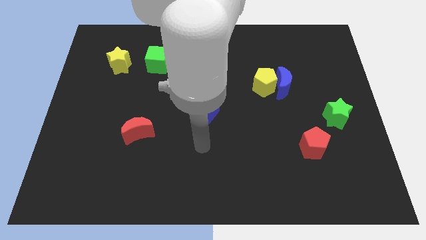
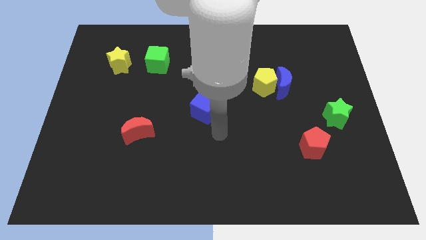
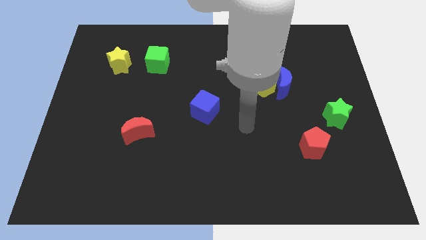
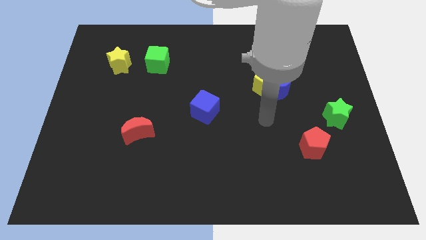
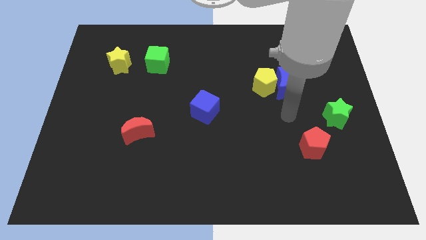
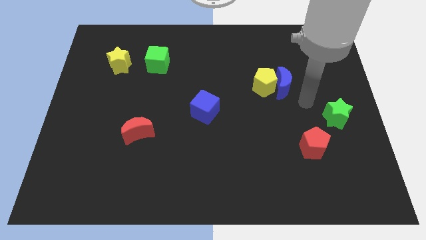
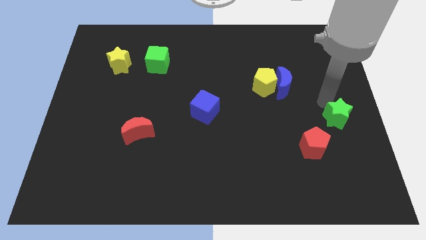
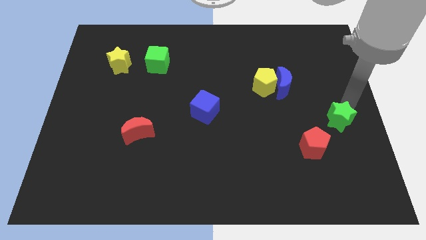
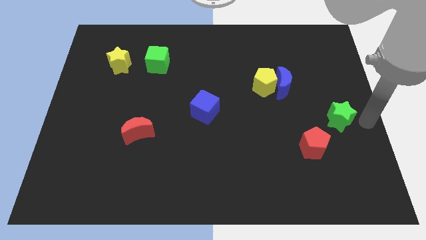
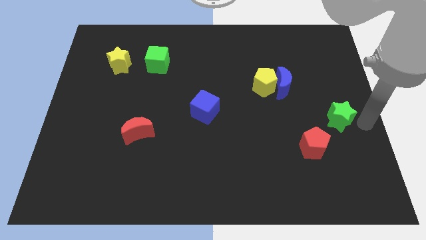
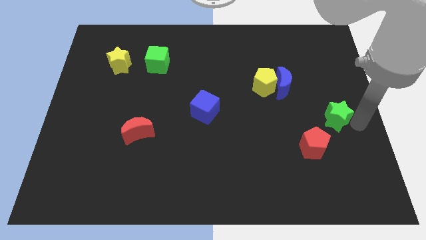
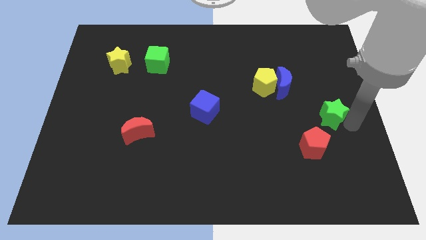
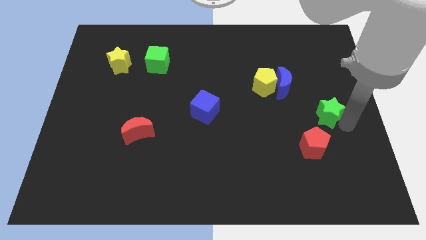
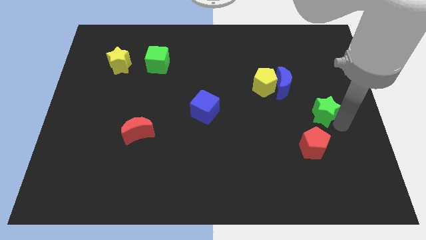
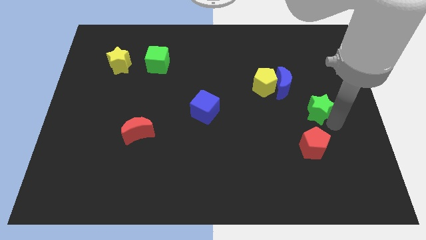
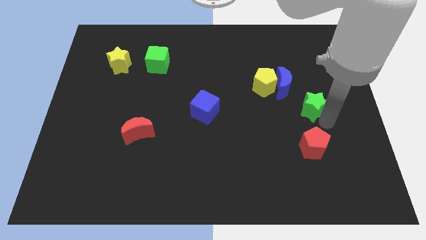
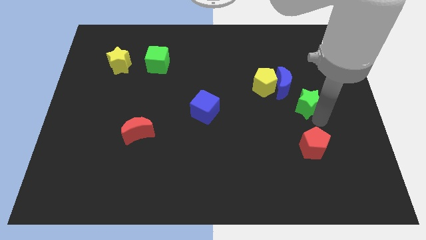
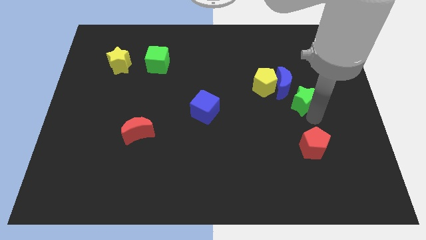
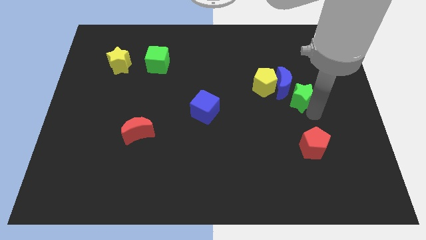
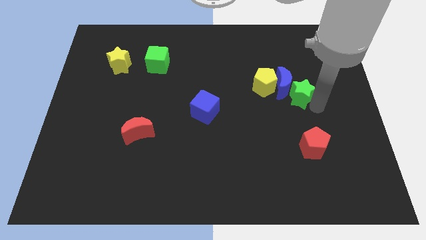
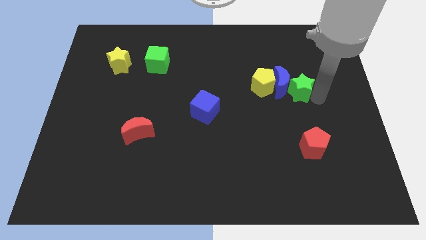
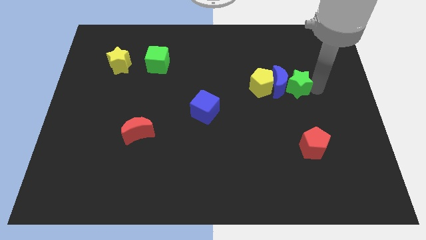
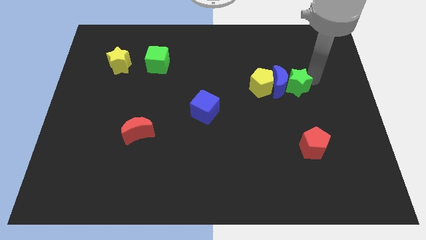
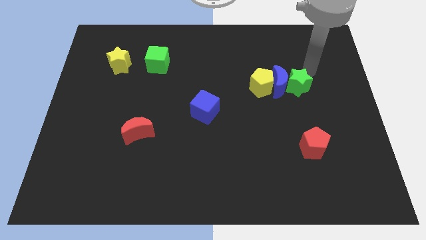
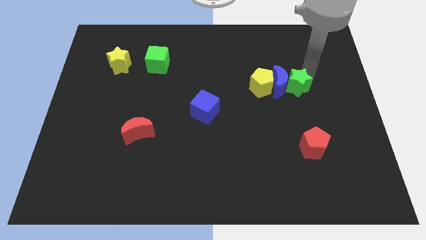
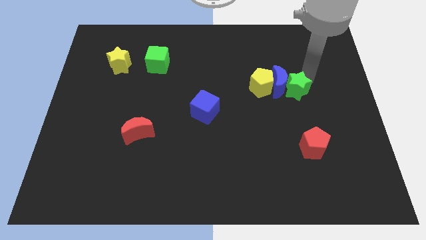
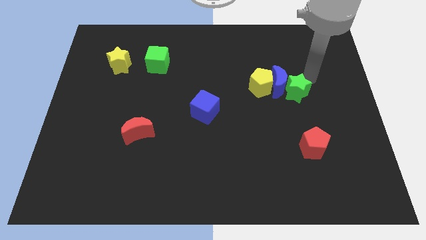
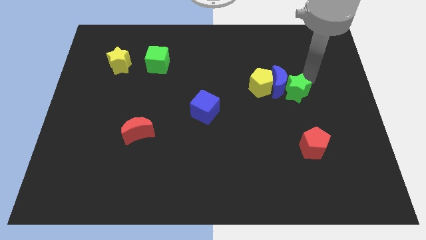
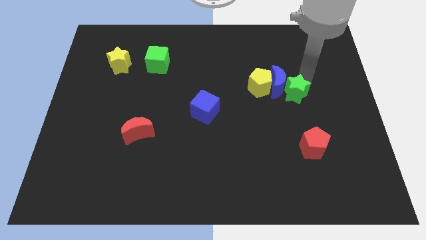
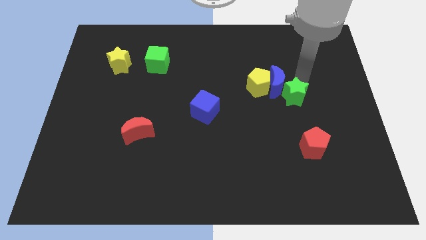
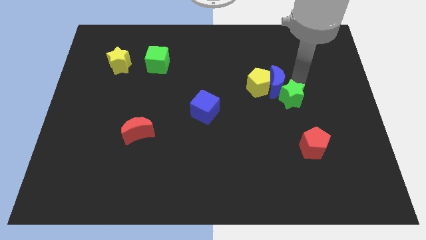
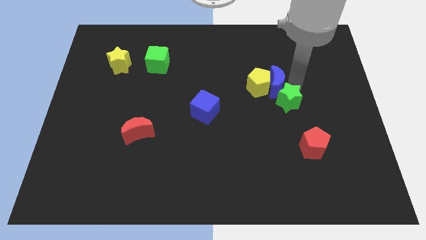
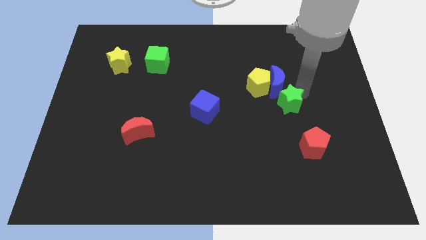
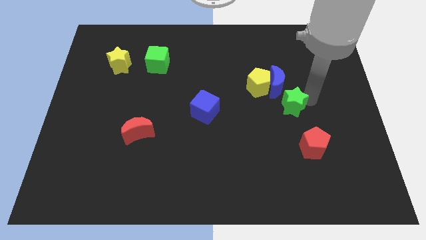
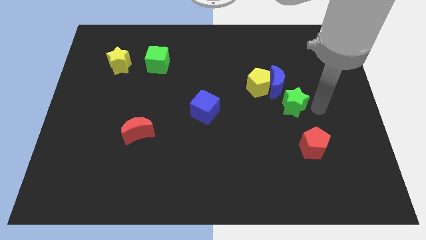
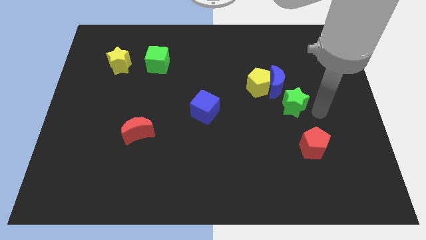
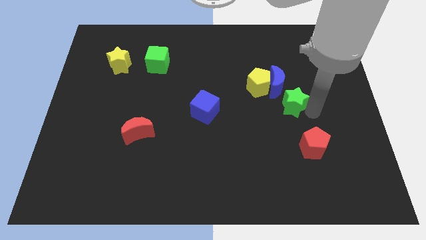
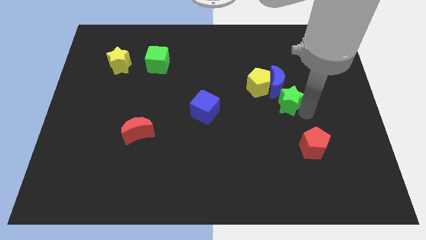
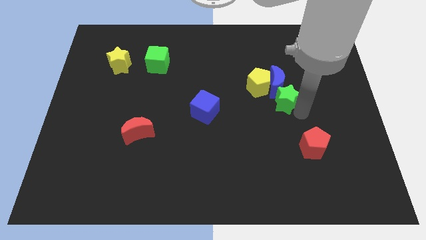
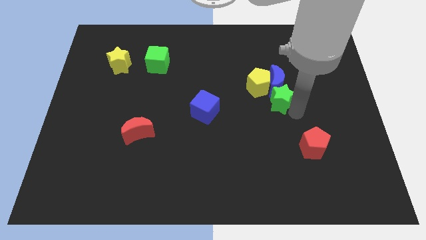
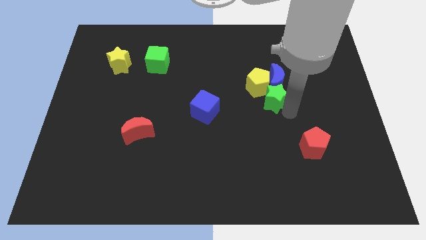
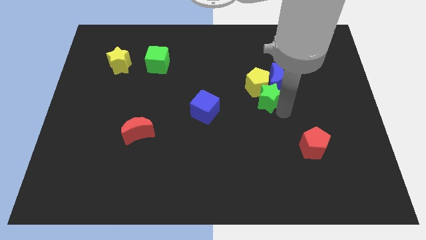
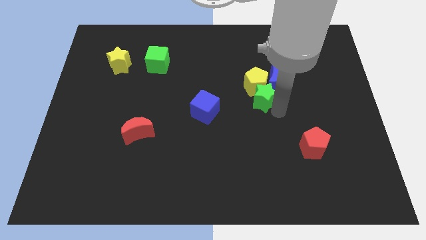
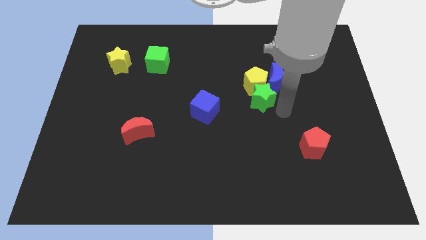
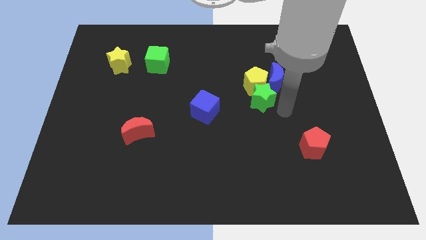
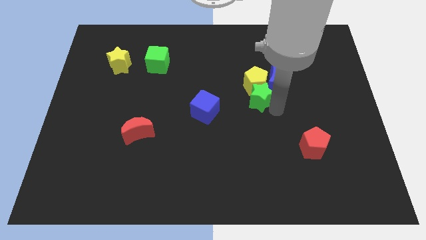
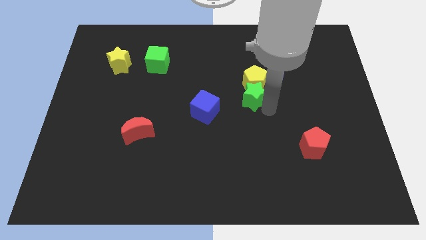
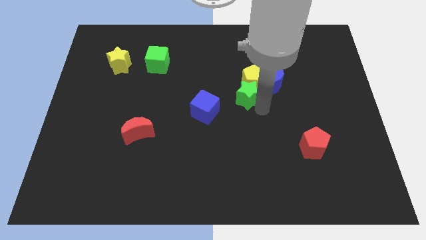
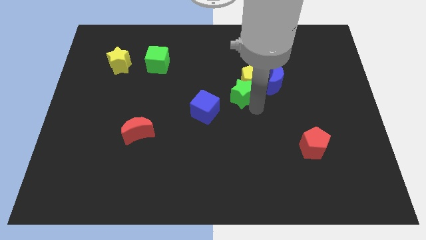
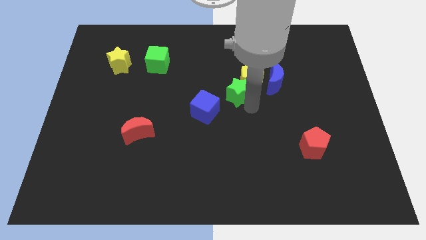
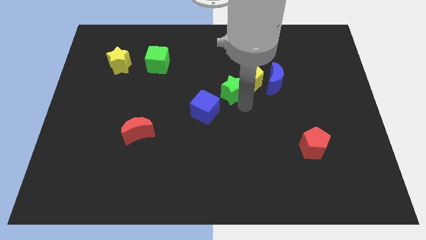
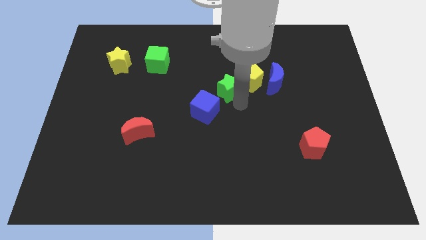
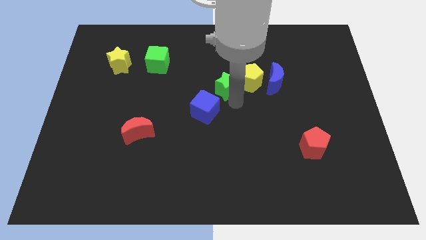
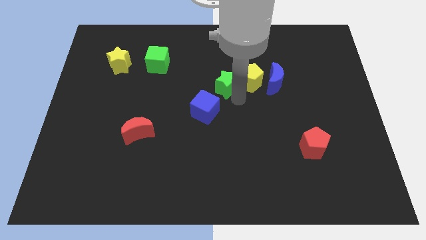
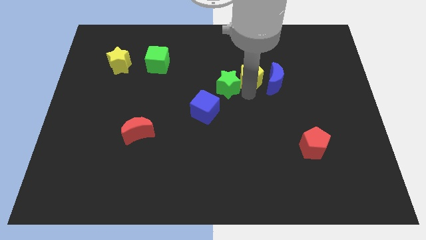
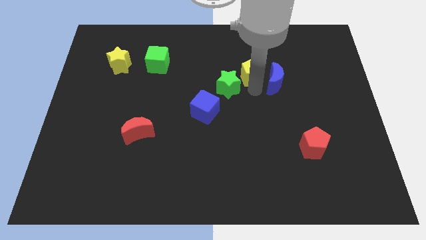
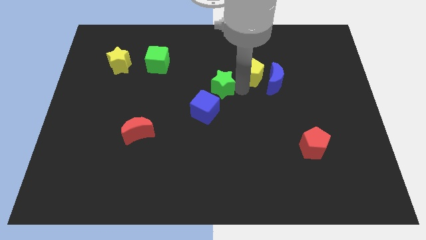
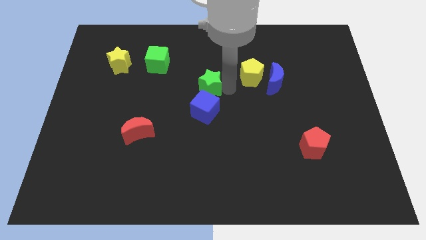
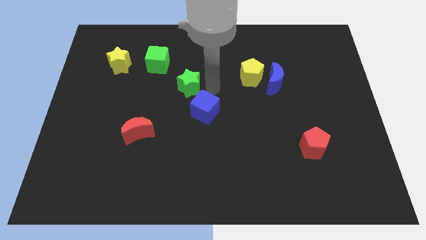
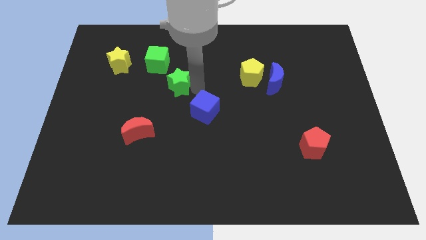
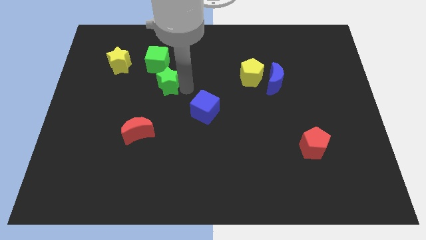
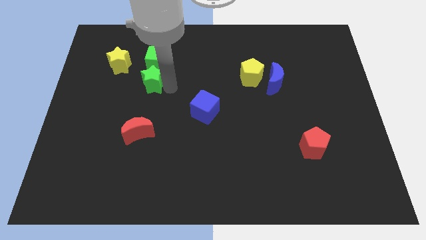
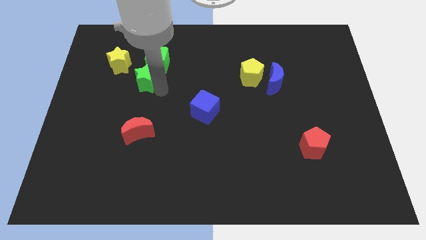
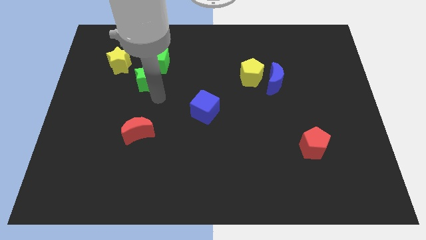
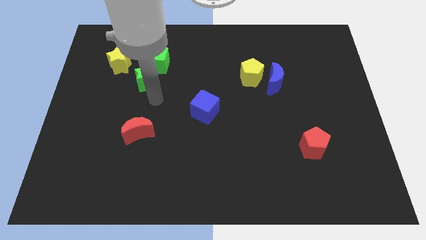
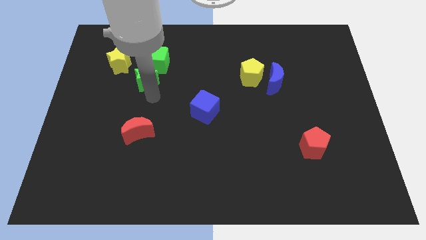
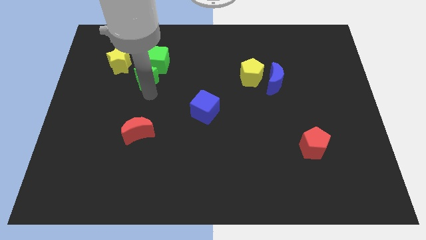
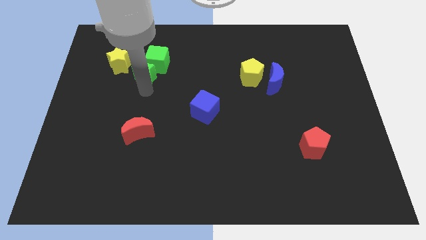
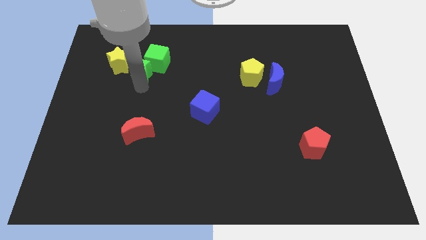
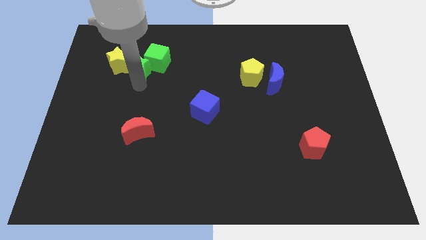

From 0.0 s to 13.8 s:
push the green star towards the yellow star
